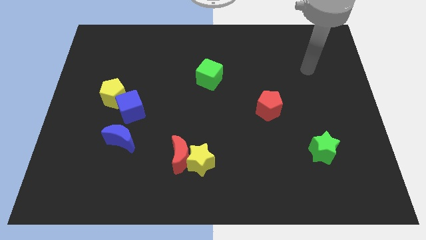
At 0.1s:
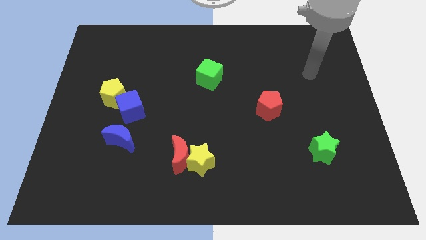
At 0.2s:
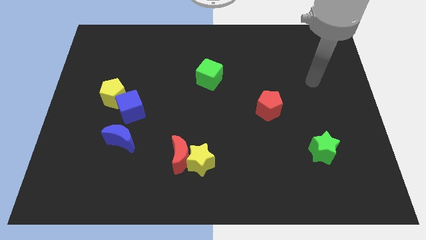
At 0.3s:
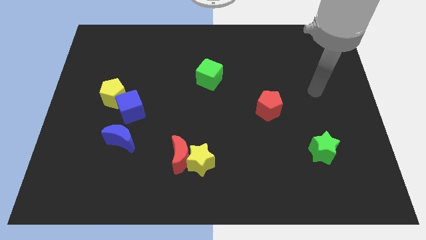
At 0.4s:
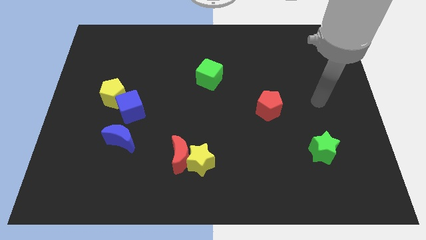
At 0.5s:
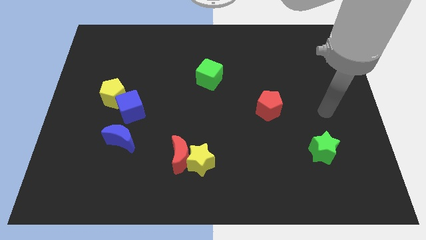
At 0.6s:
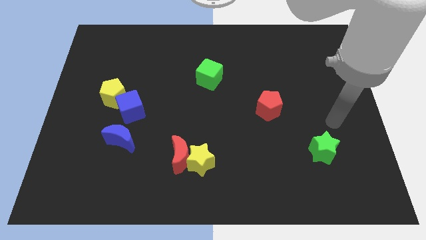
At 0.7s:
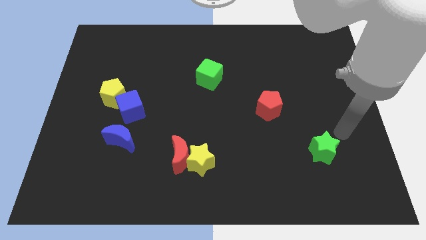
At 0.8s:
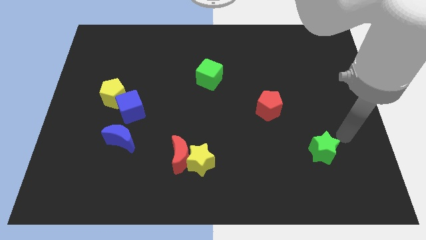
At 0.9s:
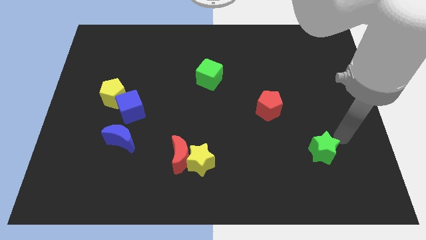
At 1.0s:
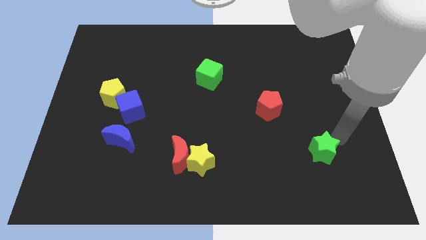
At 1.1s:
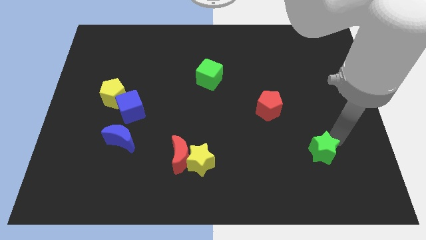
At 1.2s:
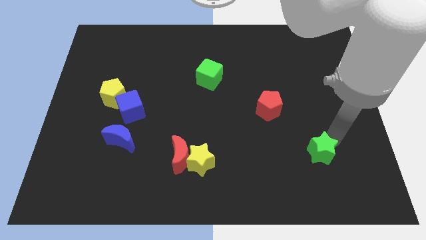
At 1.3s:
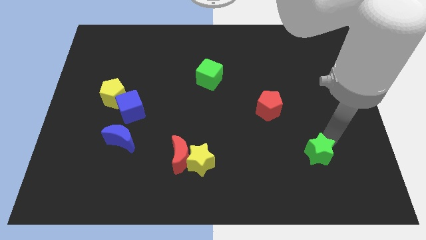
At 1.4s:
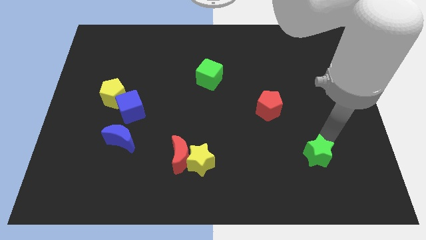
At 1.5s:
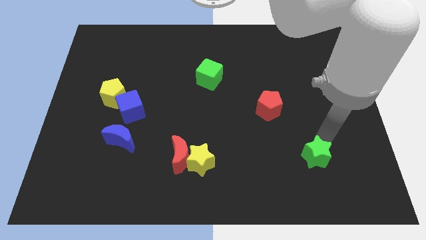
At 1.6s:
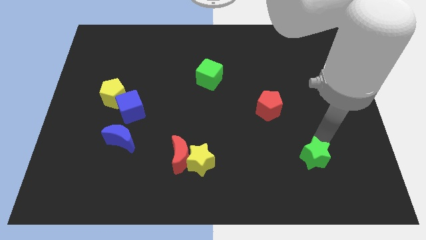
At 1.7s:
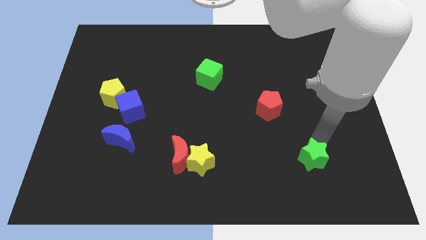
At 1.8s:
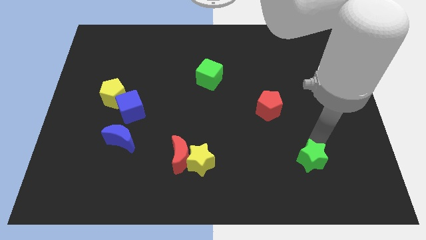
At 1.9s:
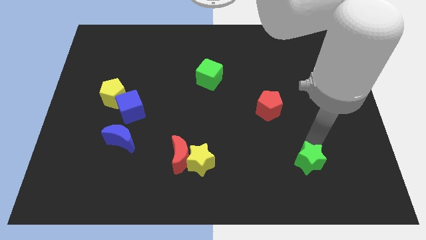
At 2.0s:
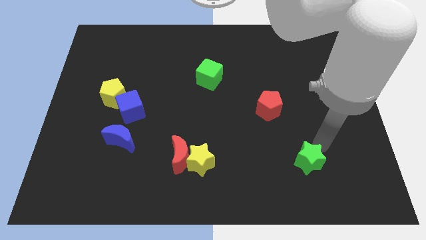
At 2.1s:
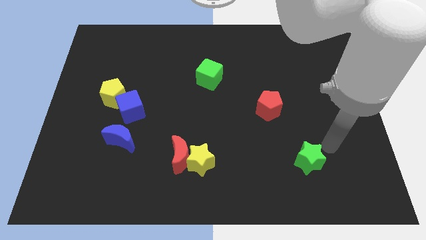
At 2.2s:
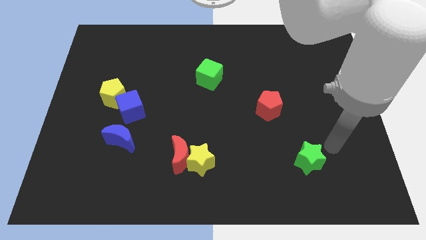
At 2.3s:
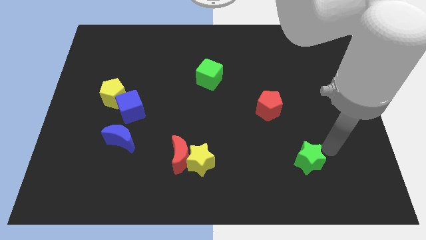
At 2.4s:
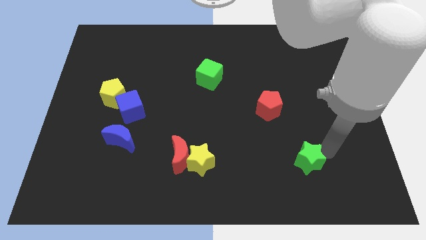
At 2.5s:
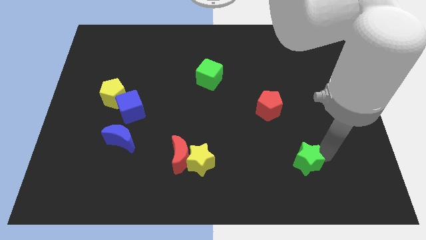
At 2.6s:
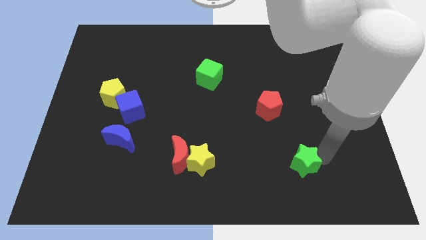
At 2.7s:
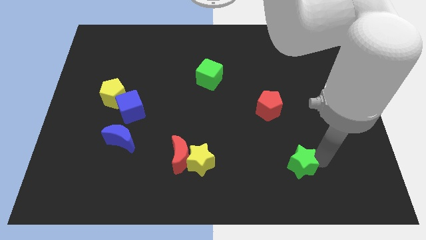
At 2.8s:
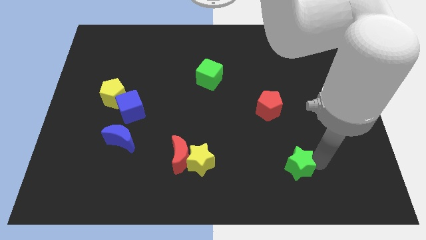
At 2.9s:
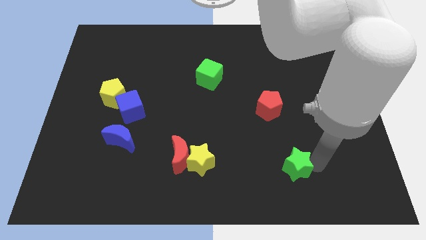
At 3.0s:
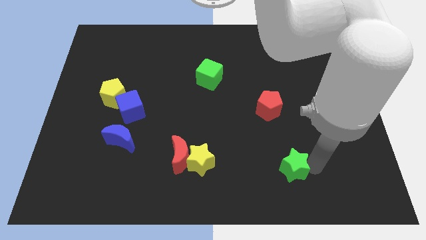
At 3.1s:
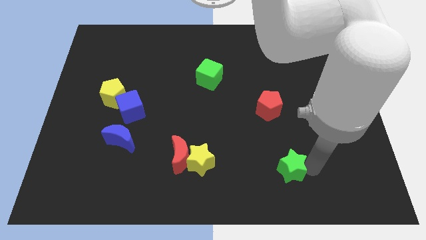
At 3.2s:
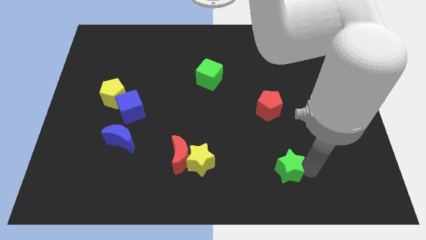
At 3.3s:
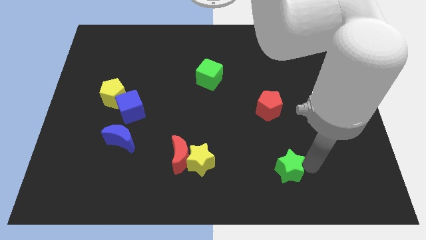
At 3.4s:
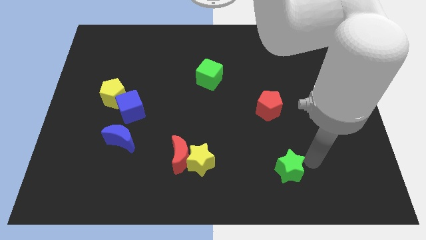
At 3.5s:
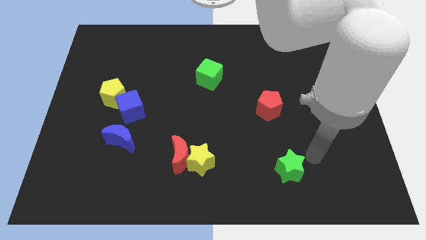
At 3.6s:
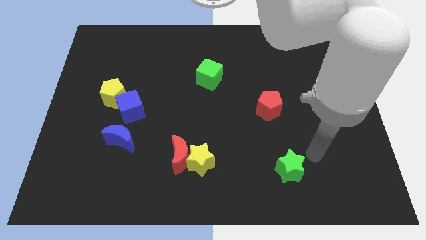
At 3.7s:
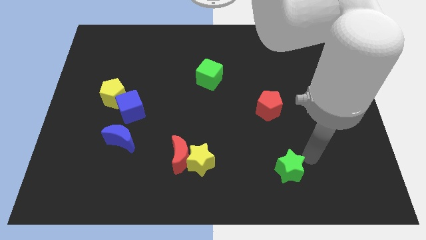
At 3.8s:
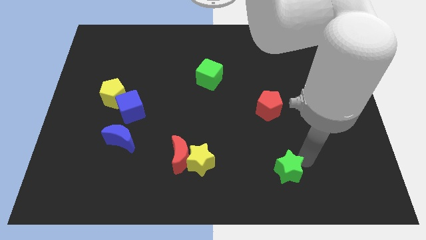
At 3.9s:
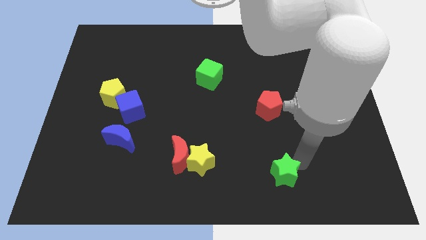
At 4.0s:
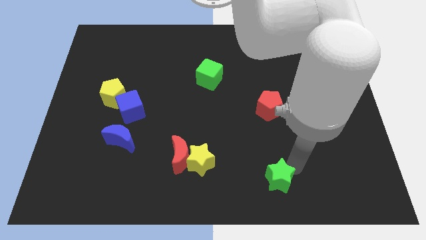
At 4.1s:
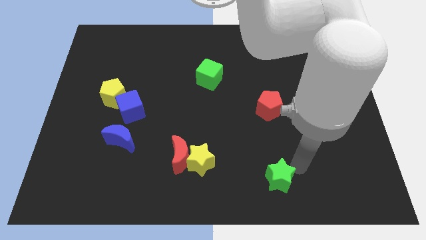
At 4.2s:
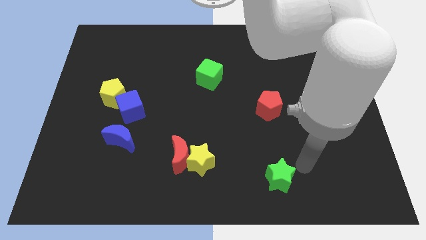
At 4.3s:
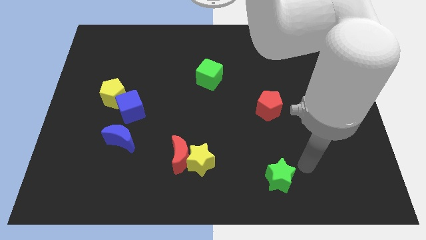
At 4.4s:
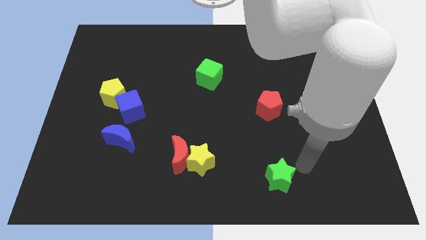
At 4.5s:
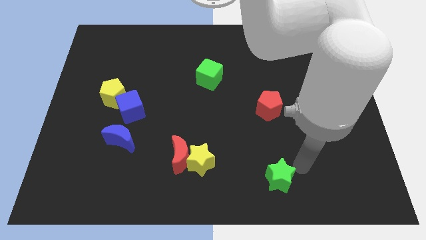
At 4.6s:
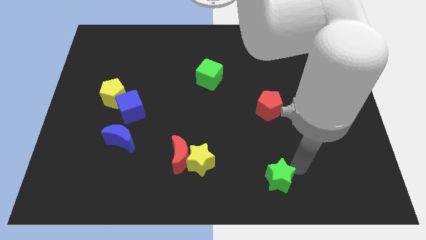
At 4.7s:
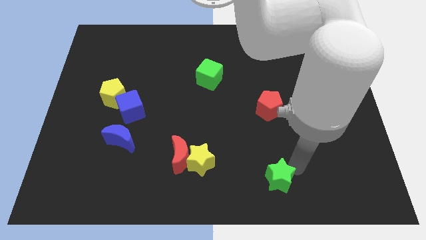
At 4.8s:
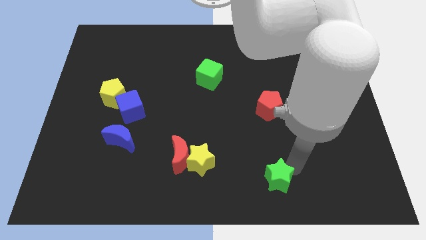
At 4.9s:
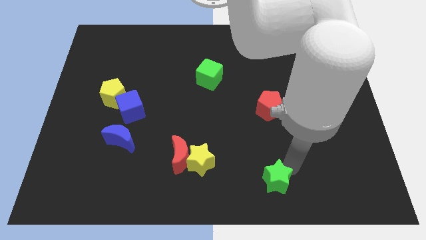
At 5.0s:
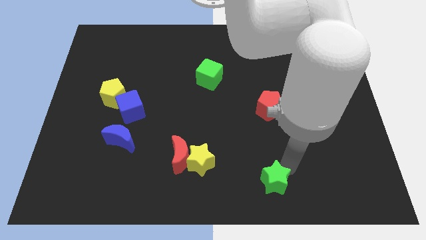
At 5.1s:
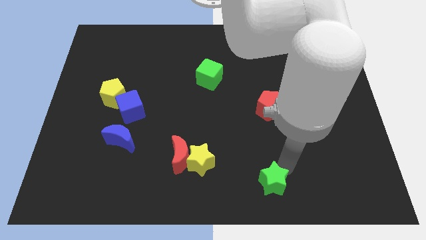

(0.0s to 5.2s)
move the green star to the bottom

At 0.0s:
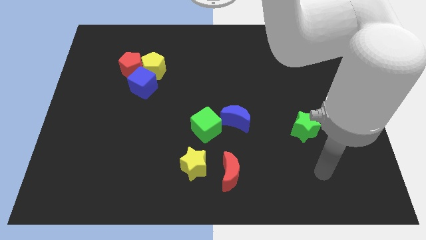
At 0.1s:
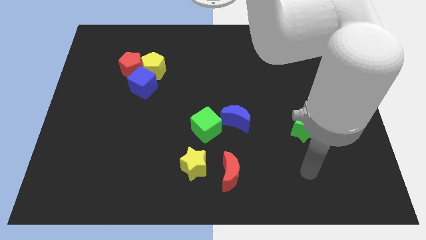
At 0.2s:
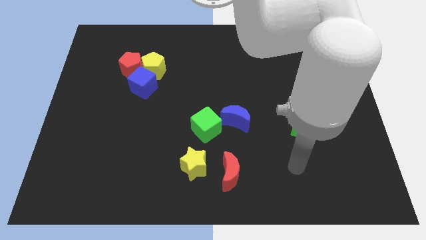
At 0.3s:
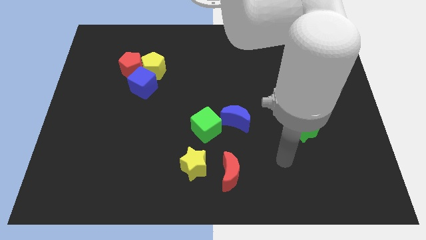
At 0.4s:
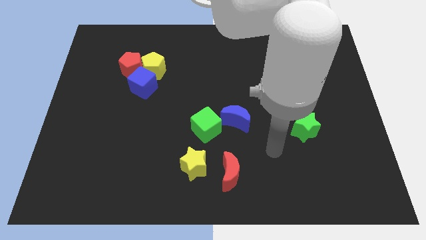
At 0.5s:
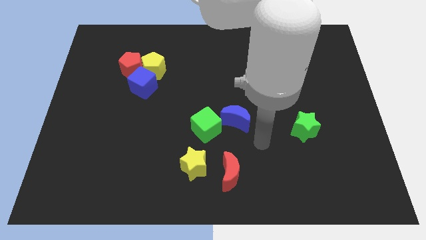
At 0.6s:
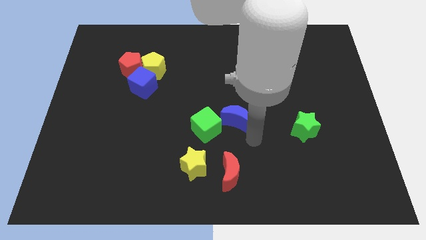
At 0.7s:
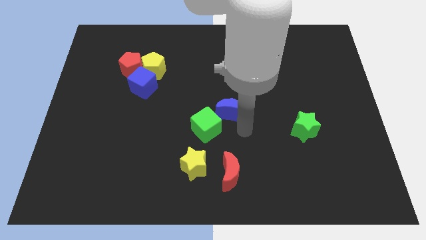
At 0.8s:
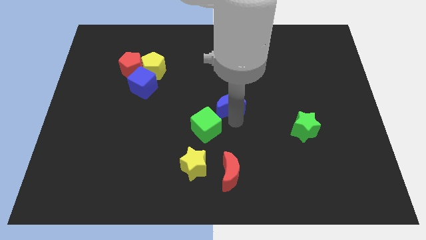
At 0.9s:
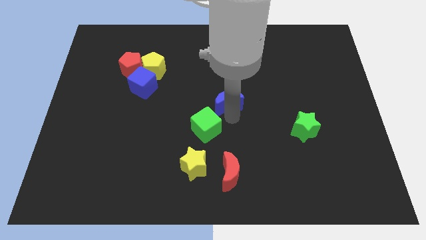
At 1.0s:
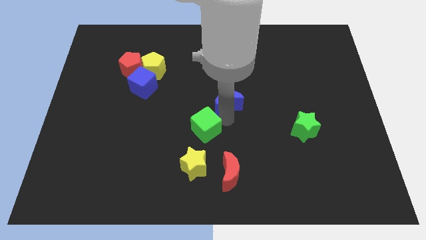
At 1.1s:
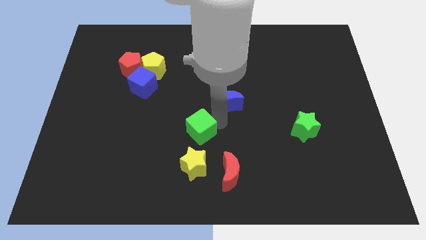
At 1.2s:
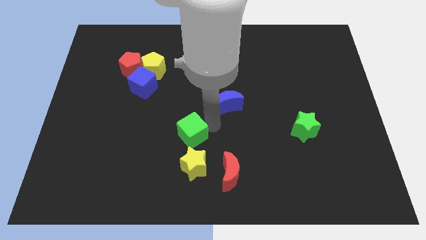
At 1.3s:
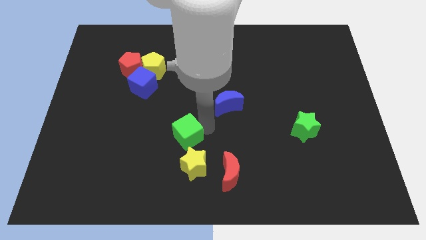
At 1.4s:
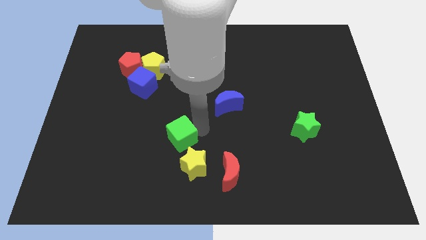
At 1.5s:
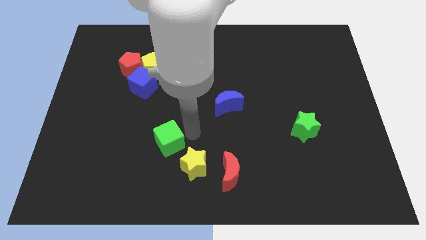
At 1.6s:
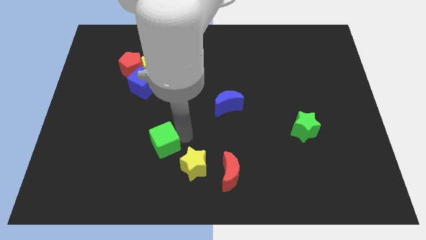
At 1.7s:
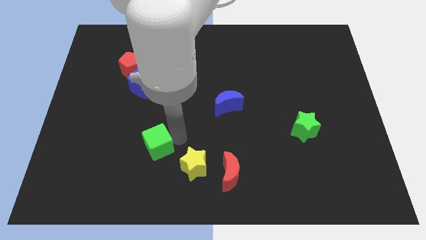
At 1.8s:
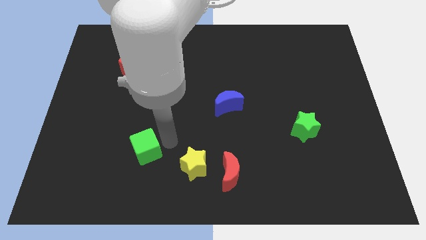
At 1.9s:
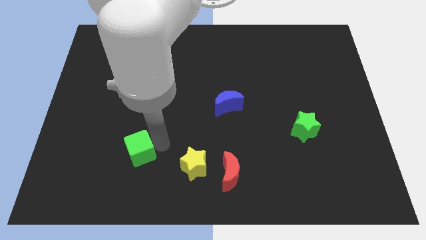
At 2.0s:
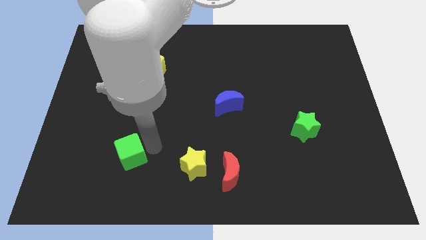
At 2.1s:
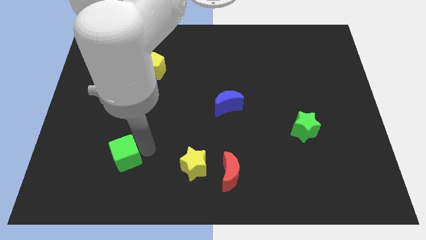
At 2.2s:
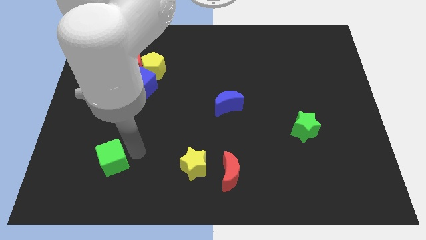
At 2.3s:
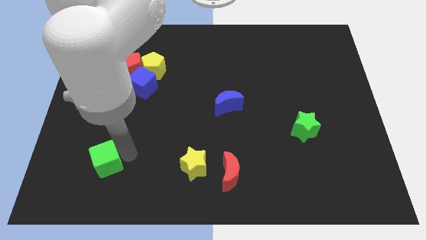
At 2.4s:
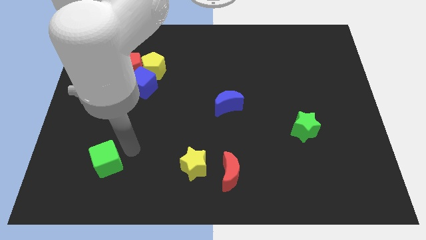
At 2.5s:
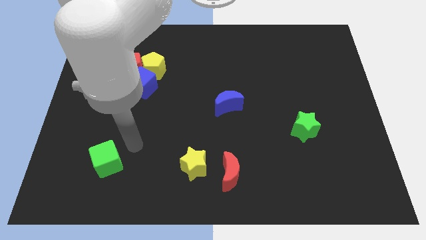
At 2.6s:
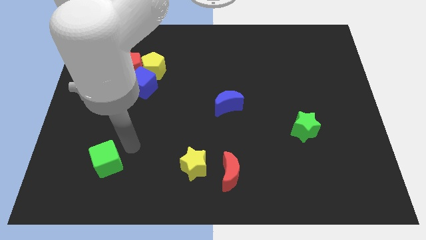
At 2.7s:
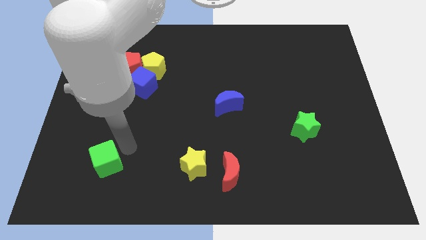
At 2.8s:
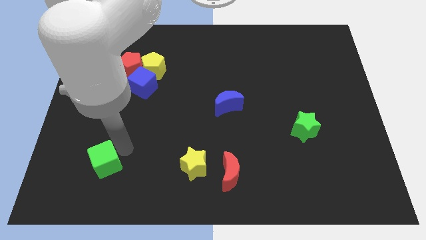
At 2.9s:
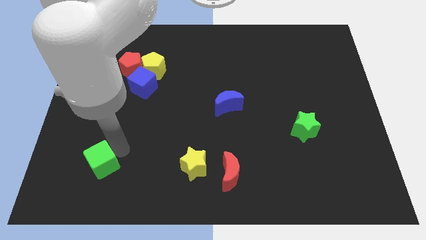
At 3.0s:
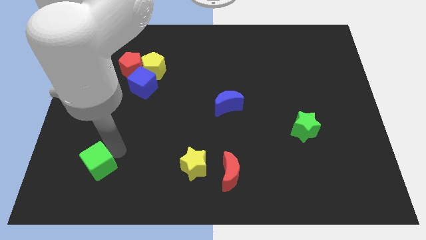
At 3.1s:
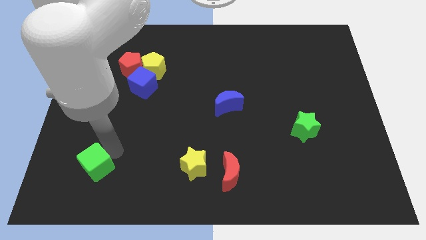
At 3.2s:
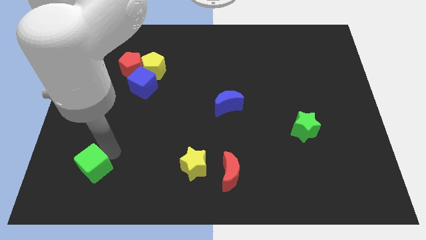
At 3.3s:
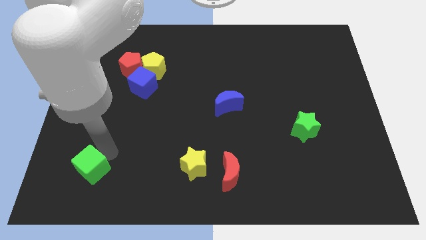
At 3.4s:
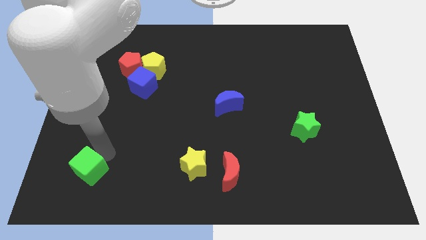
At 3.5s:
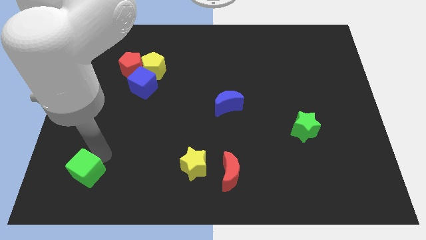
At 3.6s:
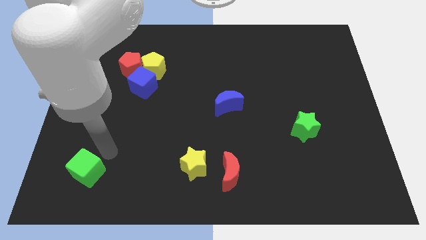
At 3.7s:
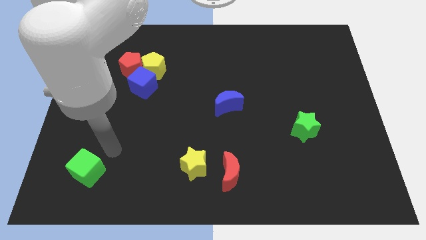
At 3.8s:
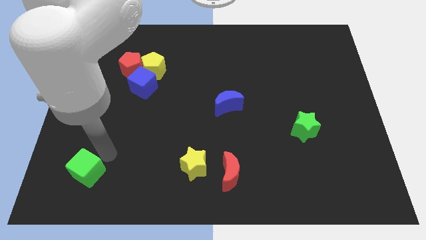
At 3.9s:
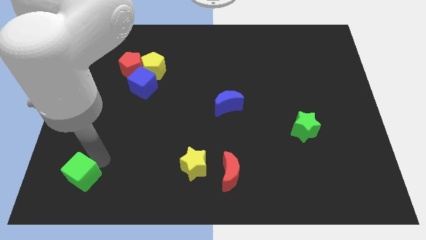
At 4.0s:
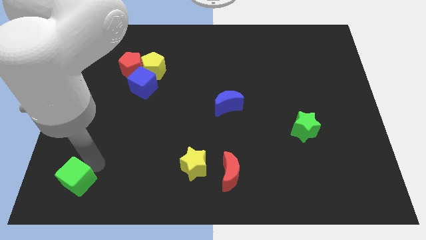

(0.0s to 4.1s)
slide the green cube to the lower left corner
